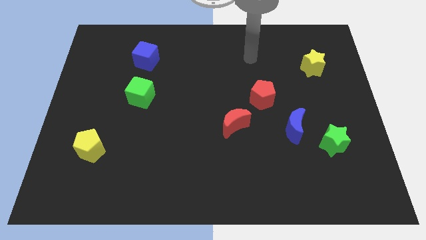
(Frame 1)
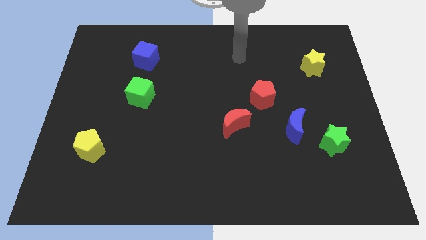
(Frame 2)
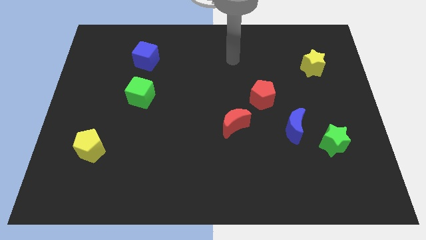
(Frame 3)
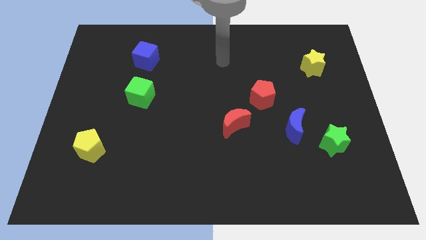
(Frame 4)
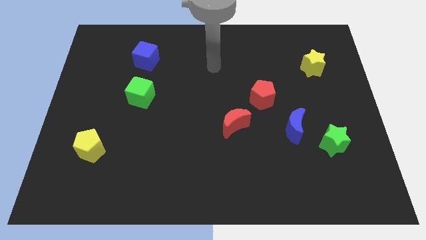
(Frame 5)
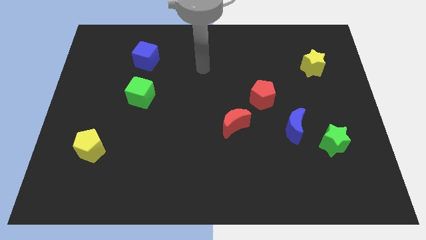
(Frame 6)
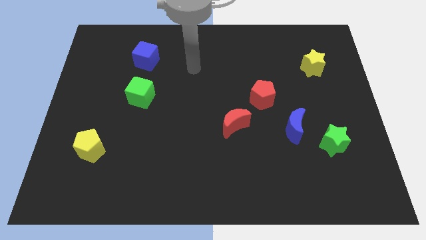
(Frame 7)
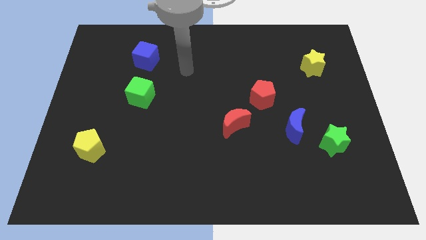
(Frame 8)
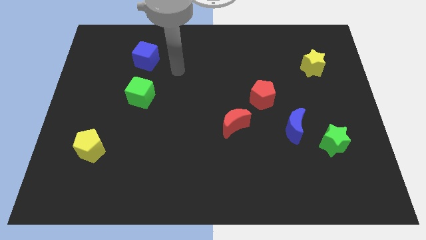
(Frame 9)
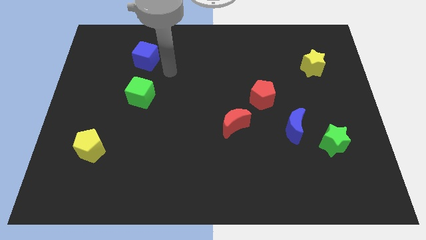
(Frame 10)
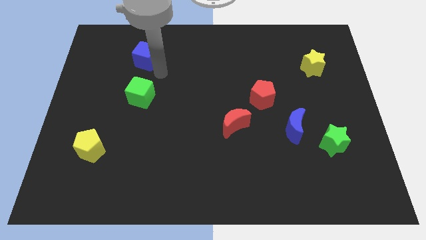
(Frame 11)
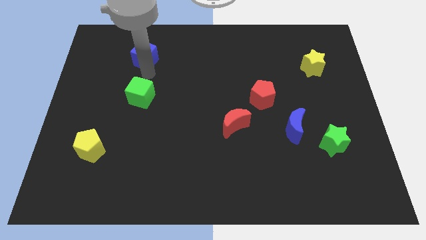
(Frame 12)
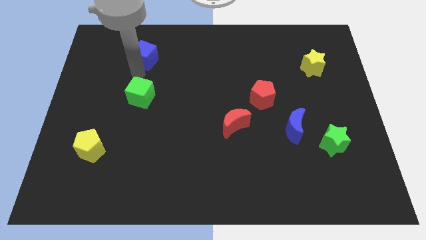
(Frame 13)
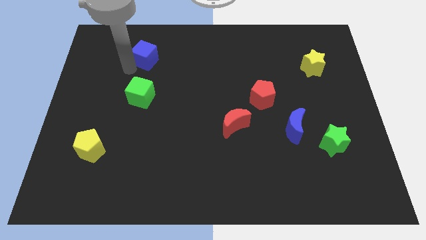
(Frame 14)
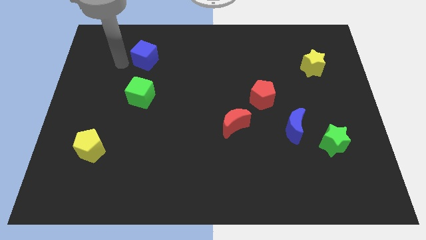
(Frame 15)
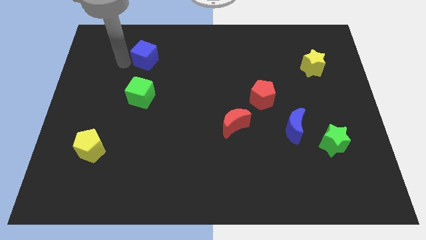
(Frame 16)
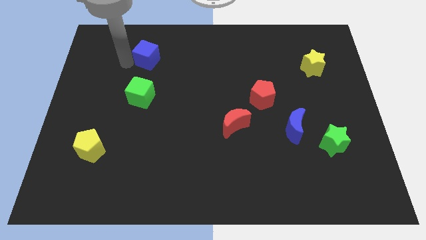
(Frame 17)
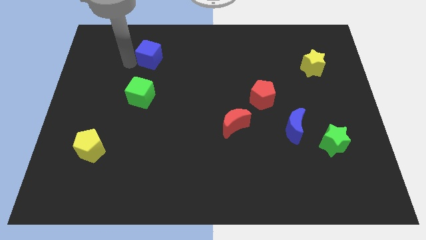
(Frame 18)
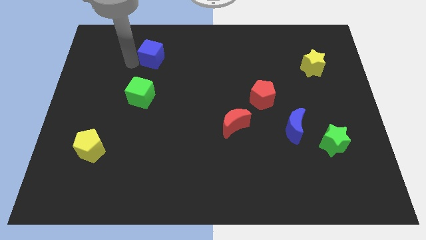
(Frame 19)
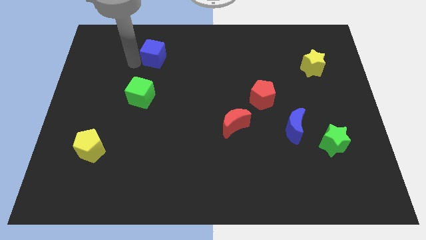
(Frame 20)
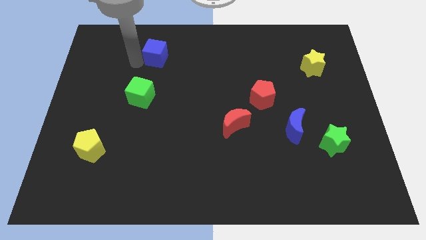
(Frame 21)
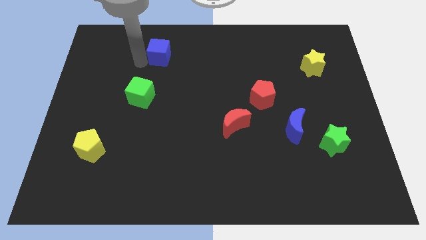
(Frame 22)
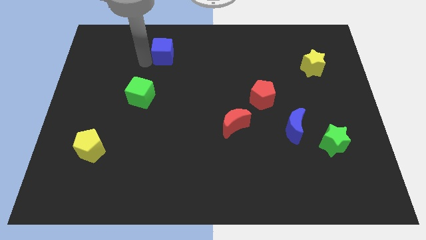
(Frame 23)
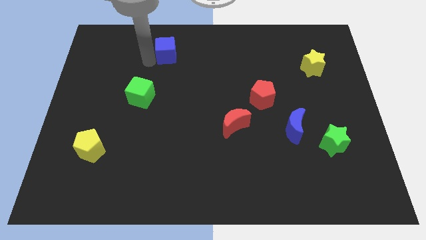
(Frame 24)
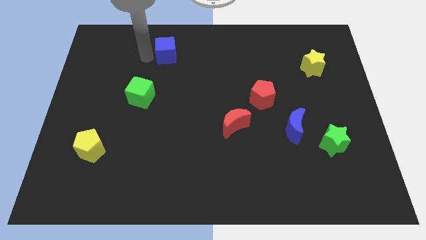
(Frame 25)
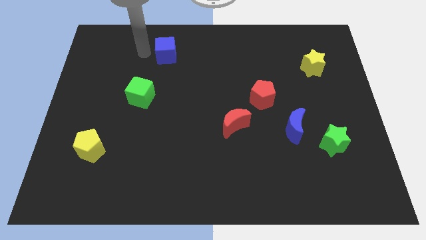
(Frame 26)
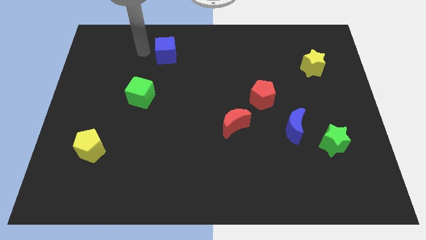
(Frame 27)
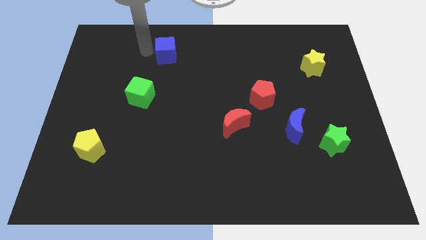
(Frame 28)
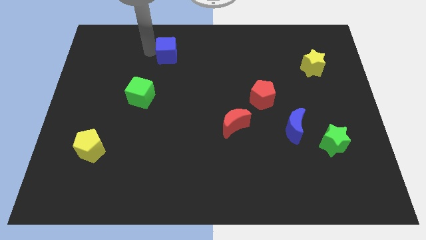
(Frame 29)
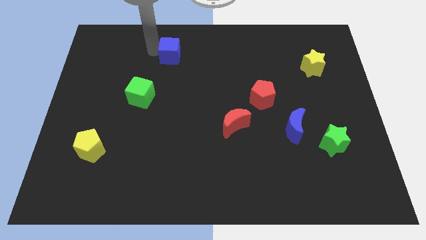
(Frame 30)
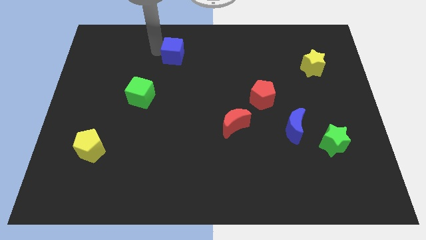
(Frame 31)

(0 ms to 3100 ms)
push the blue cube to the right a little bit

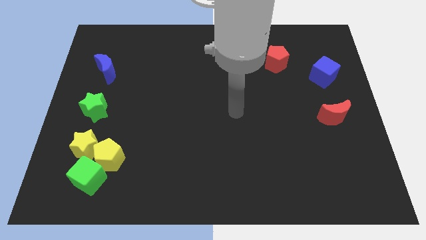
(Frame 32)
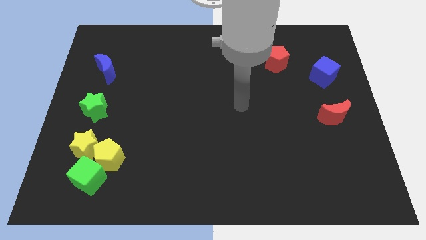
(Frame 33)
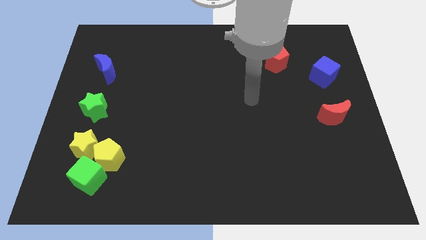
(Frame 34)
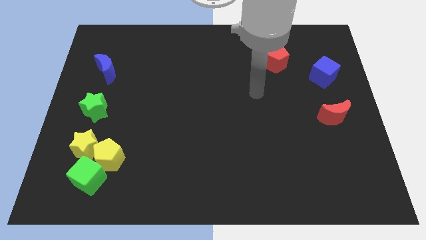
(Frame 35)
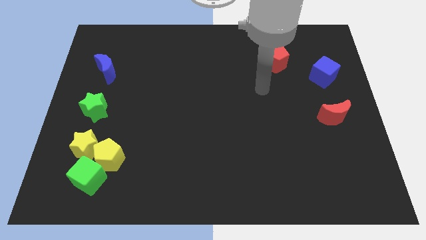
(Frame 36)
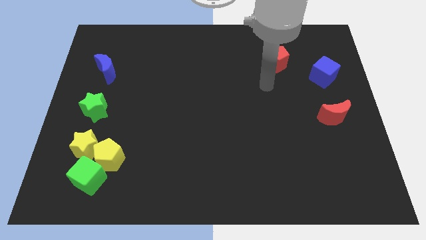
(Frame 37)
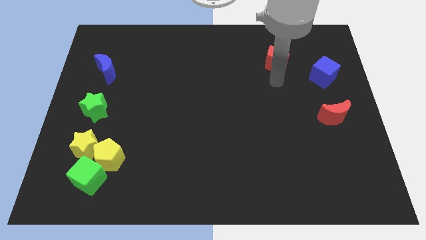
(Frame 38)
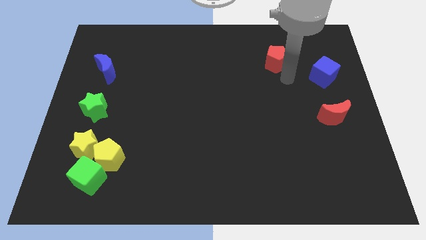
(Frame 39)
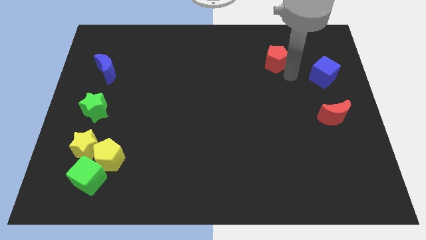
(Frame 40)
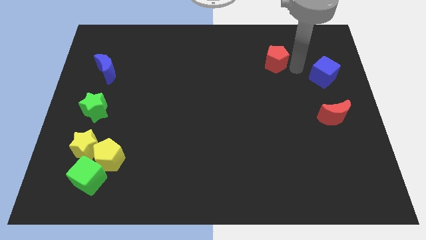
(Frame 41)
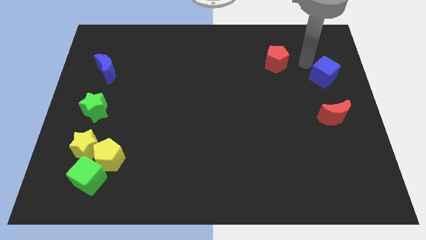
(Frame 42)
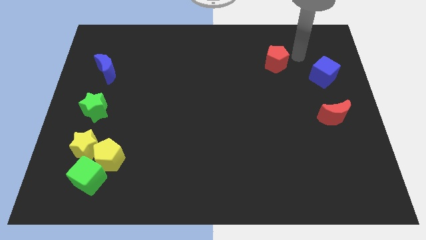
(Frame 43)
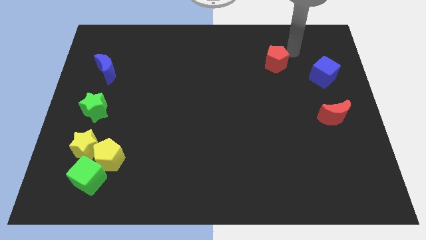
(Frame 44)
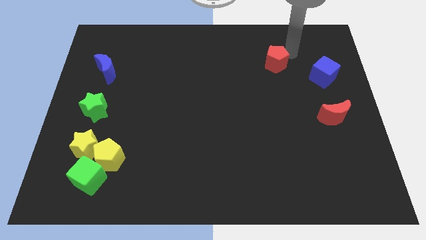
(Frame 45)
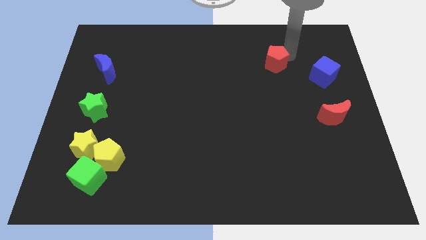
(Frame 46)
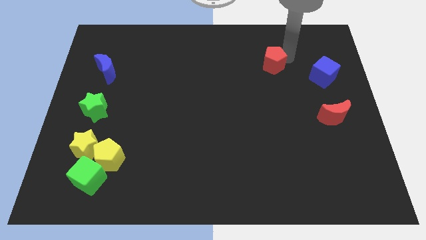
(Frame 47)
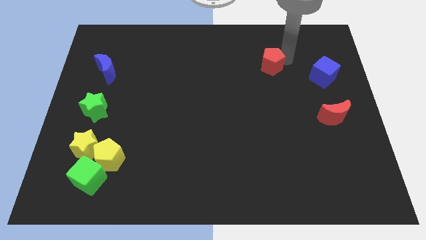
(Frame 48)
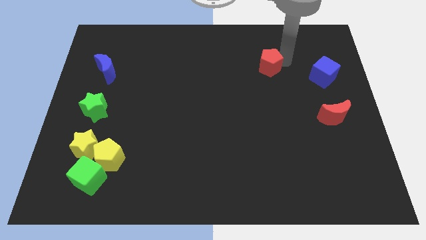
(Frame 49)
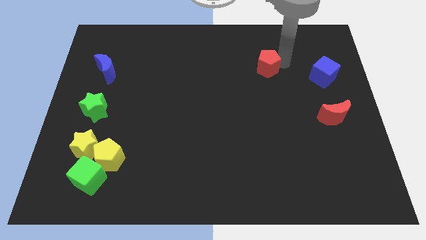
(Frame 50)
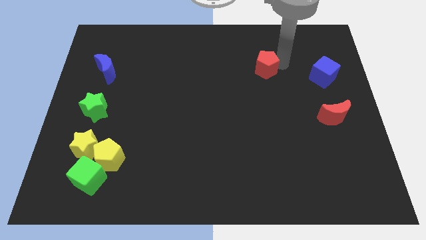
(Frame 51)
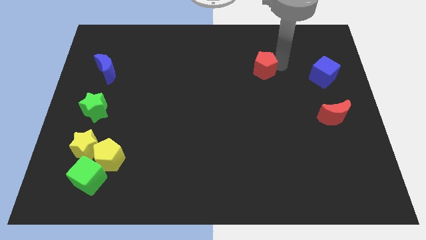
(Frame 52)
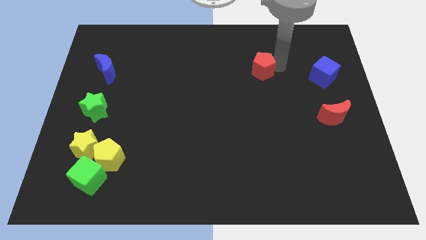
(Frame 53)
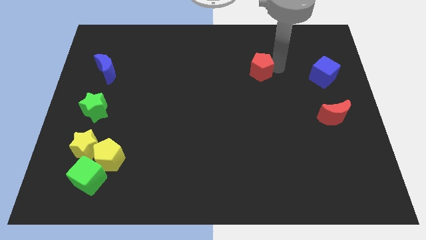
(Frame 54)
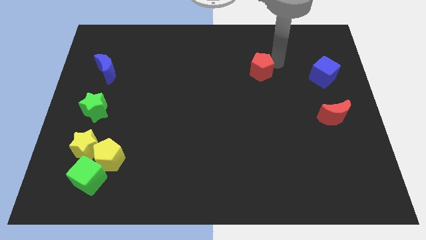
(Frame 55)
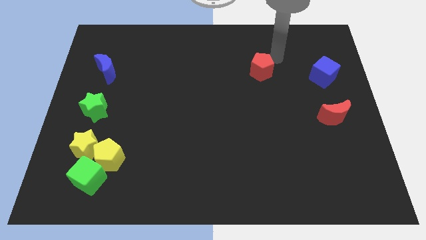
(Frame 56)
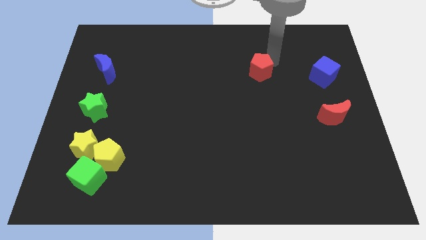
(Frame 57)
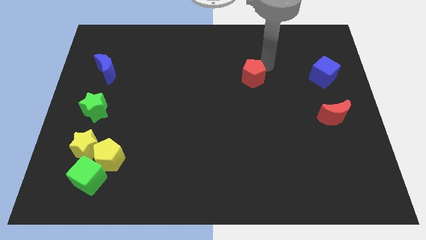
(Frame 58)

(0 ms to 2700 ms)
slightly push the red pentagon downwards and left diagonally

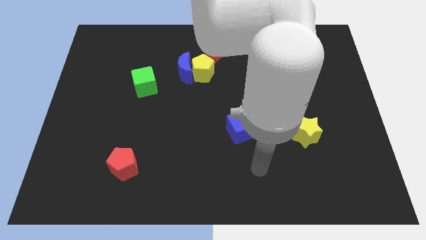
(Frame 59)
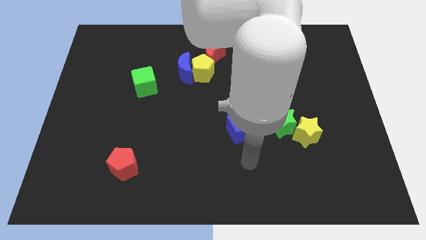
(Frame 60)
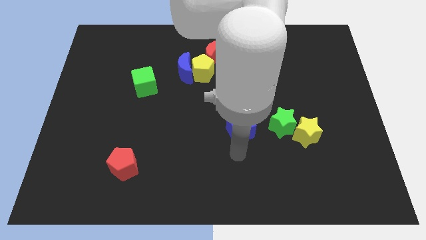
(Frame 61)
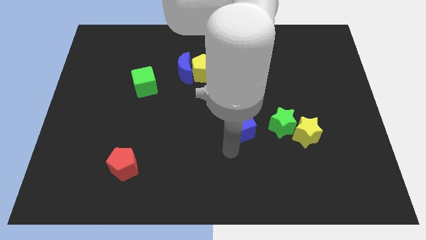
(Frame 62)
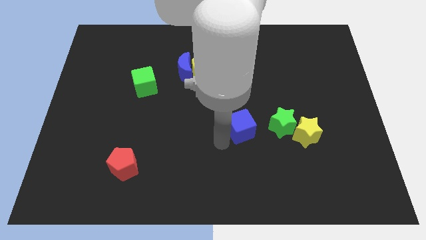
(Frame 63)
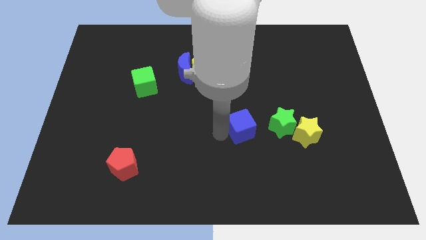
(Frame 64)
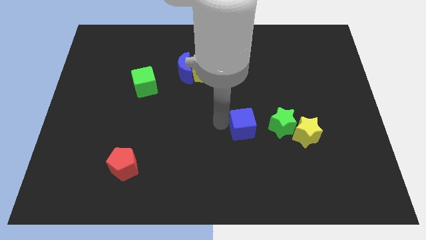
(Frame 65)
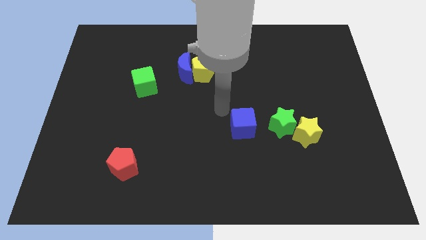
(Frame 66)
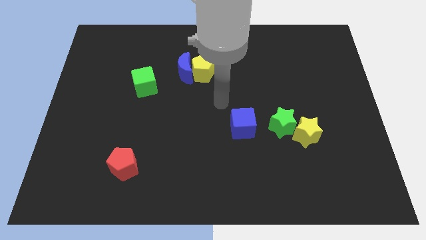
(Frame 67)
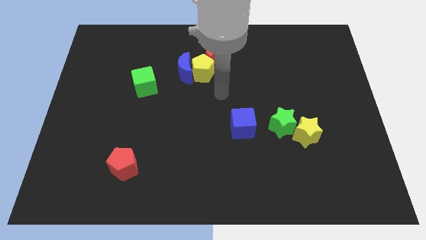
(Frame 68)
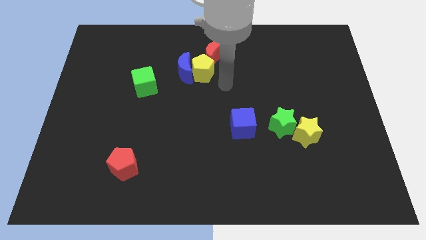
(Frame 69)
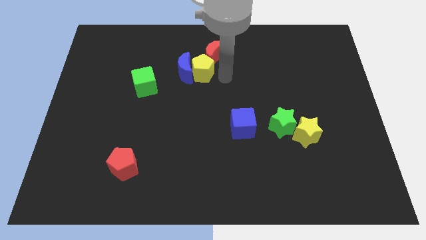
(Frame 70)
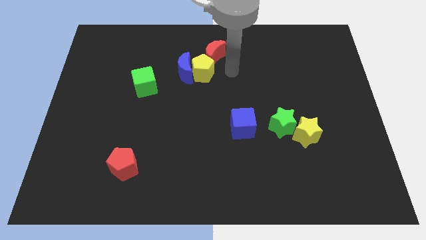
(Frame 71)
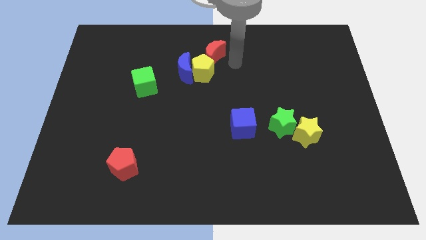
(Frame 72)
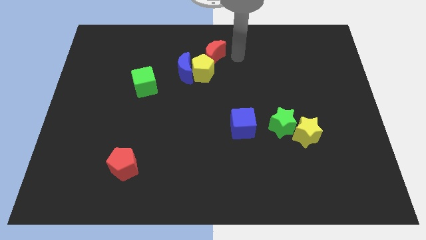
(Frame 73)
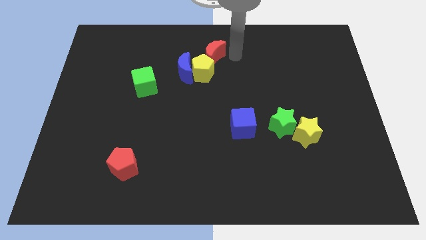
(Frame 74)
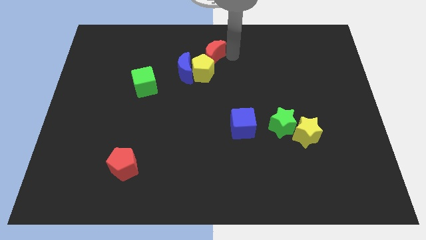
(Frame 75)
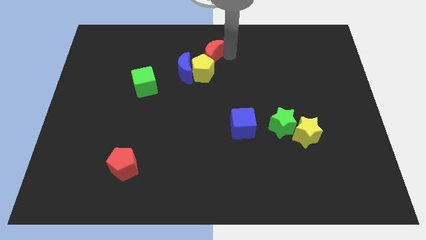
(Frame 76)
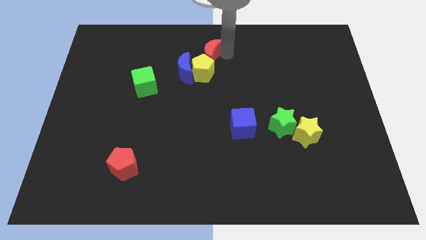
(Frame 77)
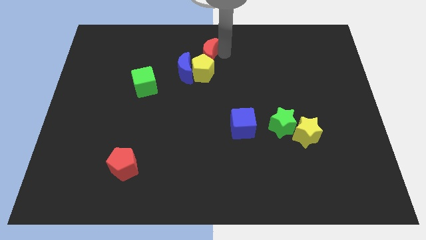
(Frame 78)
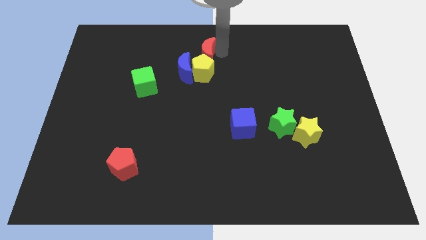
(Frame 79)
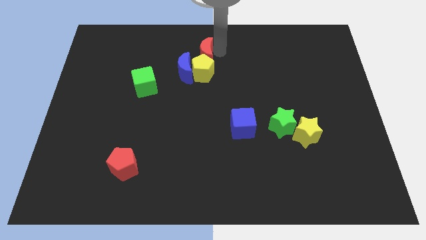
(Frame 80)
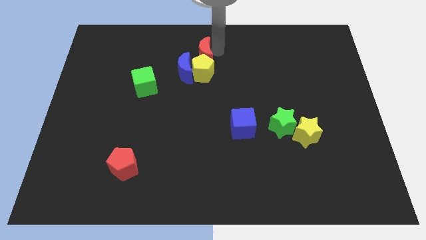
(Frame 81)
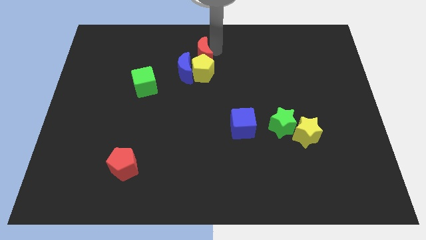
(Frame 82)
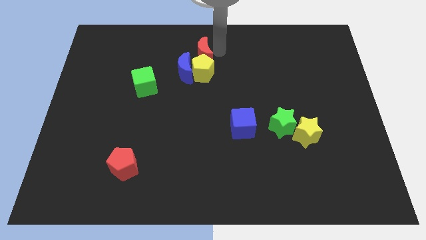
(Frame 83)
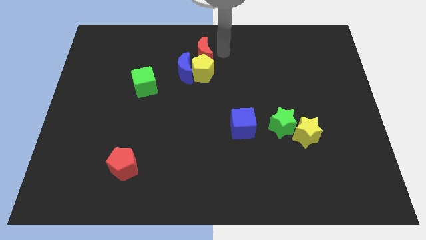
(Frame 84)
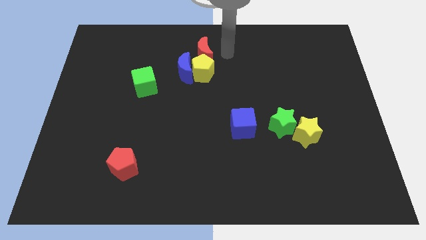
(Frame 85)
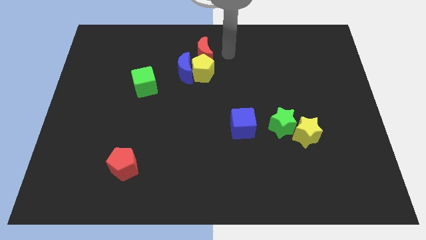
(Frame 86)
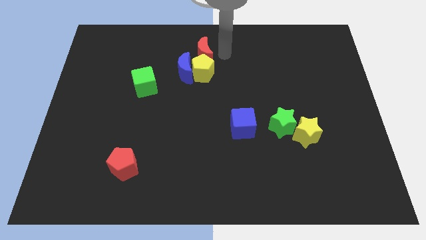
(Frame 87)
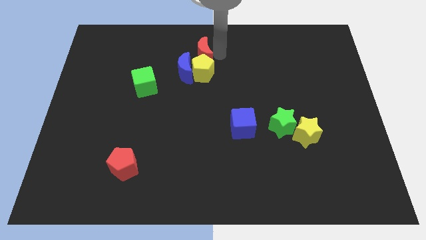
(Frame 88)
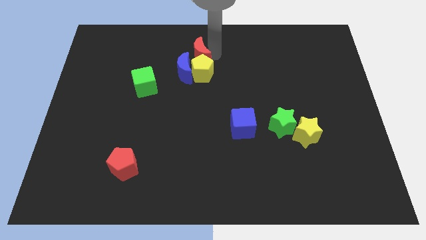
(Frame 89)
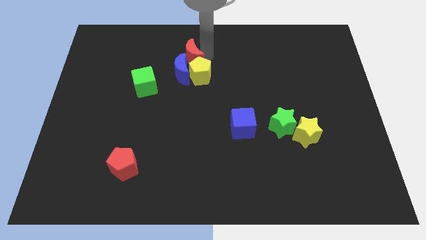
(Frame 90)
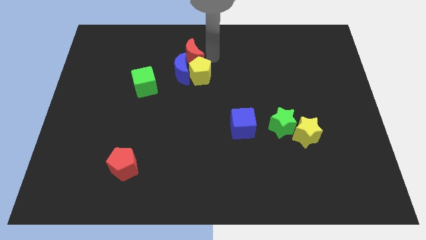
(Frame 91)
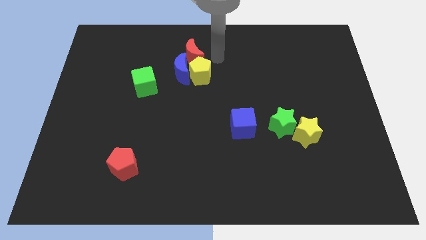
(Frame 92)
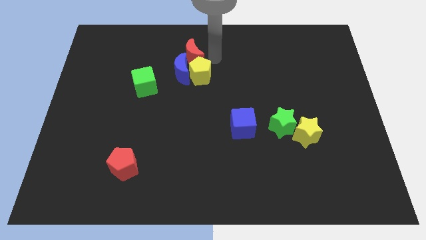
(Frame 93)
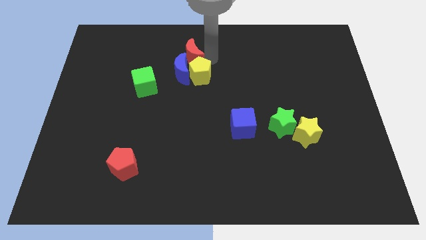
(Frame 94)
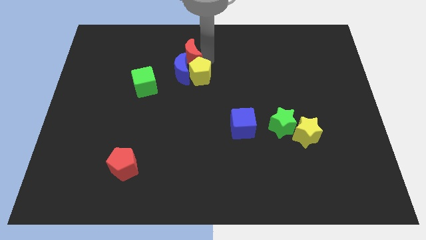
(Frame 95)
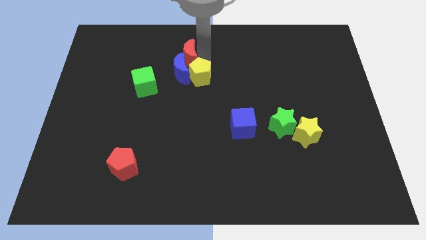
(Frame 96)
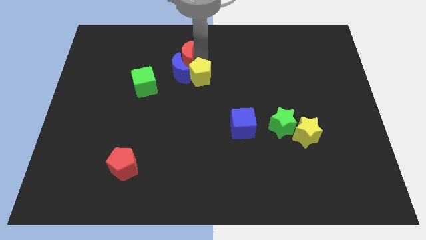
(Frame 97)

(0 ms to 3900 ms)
push the red moon left a little bit
